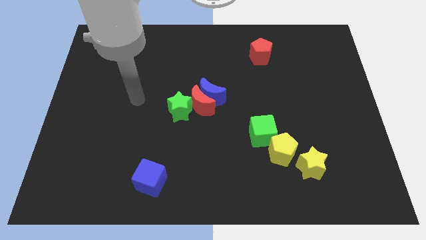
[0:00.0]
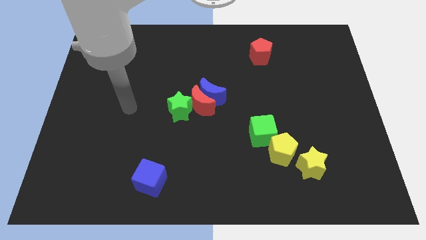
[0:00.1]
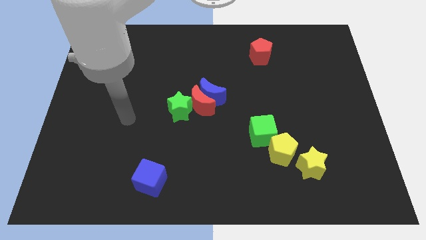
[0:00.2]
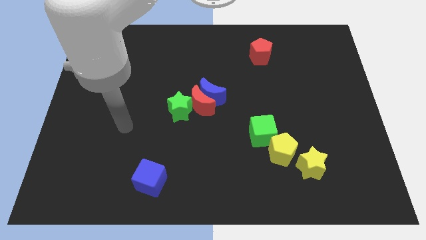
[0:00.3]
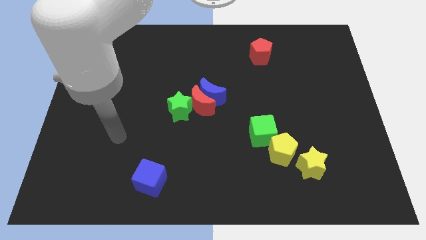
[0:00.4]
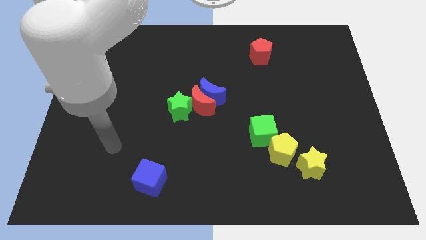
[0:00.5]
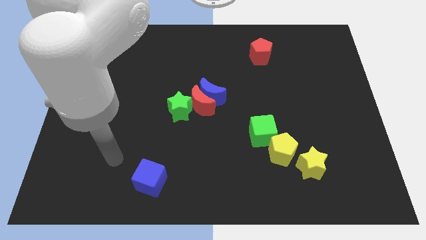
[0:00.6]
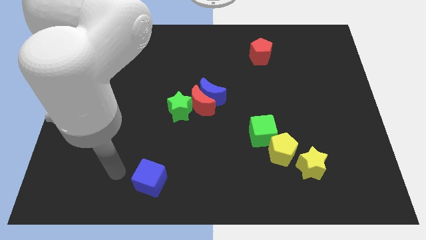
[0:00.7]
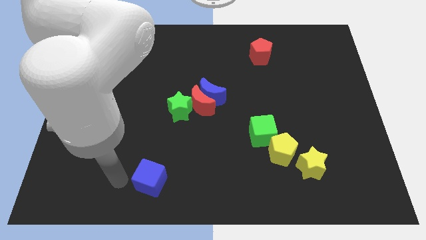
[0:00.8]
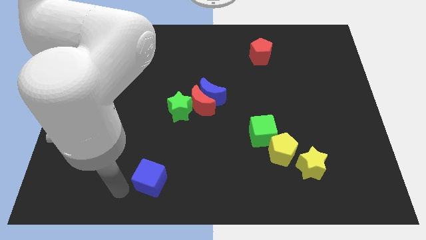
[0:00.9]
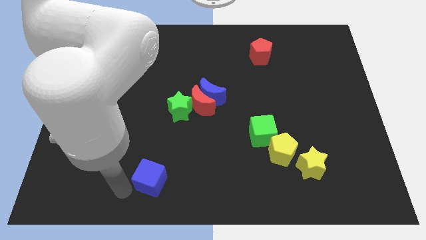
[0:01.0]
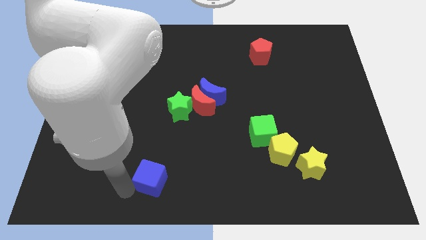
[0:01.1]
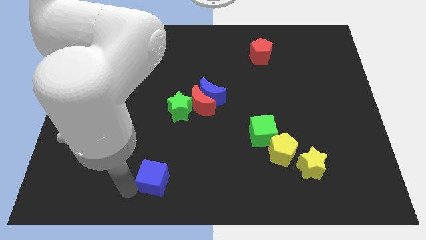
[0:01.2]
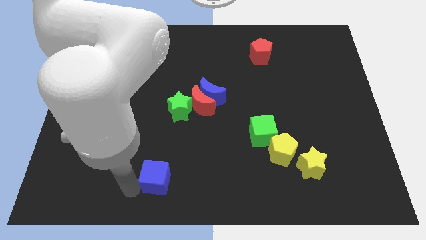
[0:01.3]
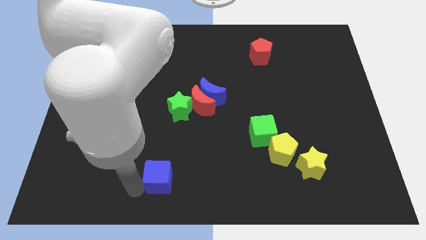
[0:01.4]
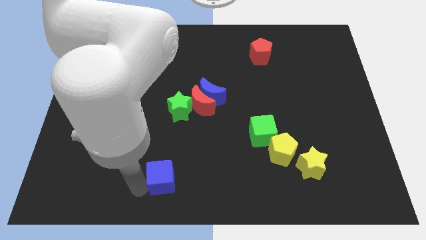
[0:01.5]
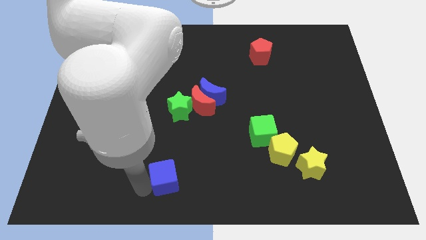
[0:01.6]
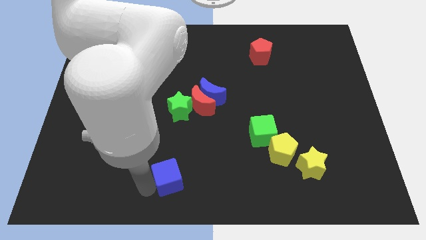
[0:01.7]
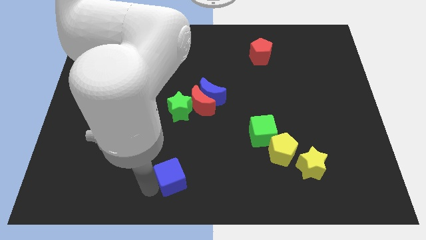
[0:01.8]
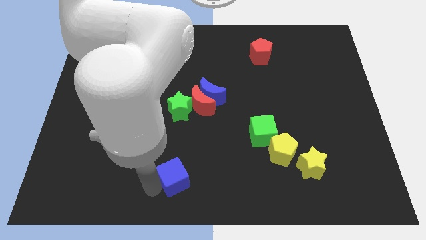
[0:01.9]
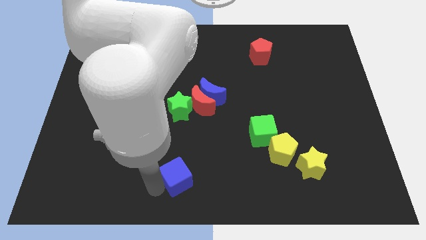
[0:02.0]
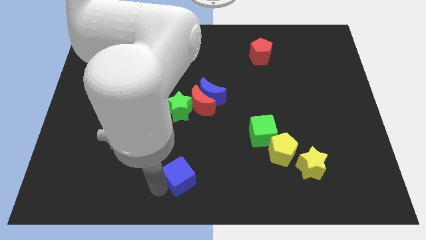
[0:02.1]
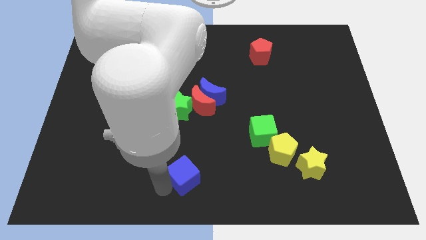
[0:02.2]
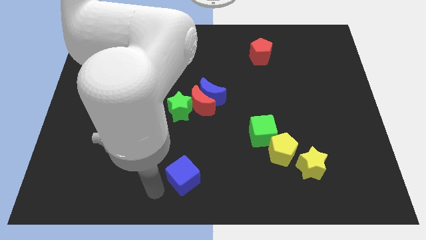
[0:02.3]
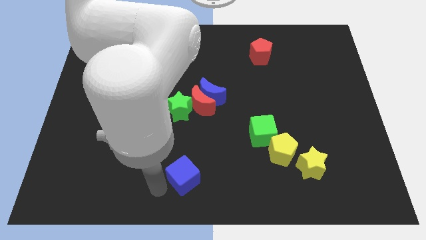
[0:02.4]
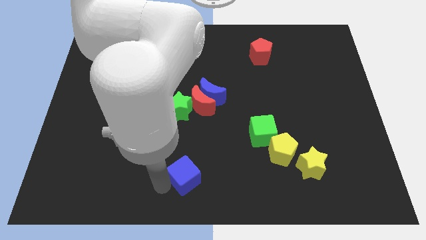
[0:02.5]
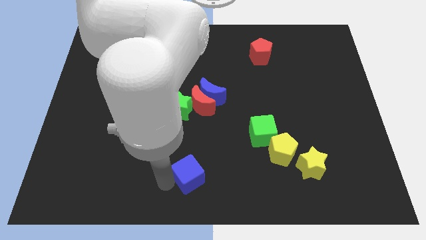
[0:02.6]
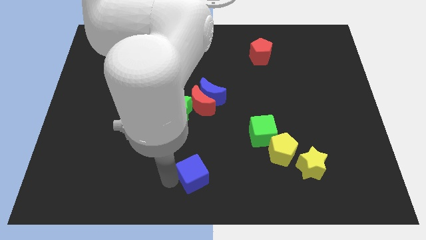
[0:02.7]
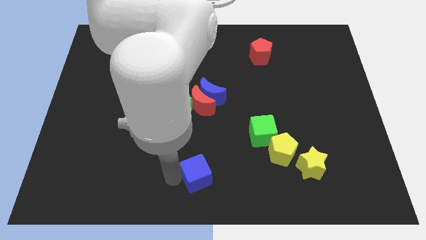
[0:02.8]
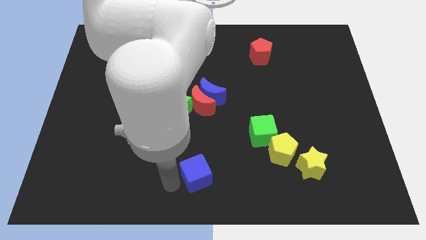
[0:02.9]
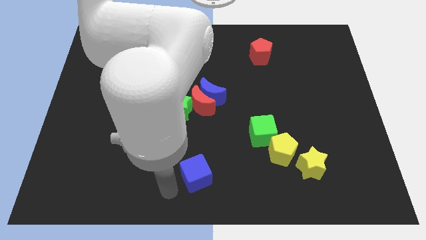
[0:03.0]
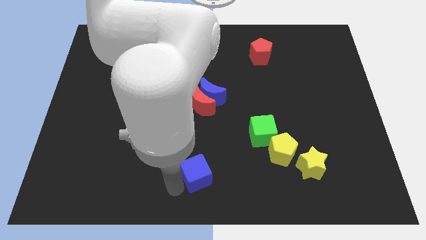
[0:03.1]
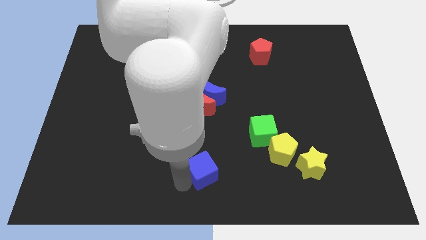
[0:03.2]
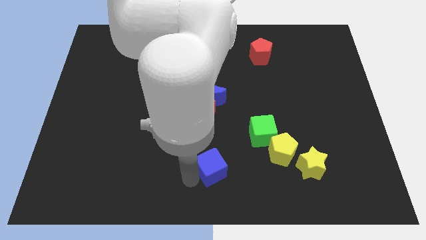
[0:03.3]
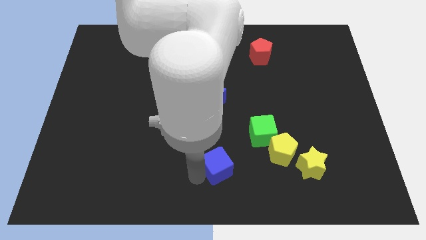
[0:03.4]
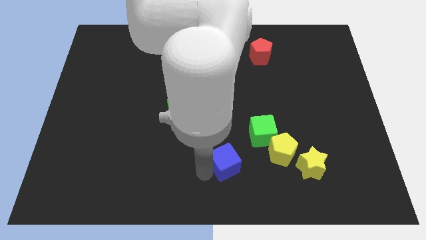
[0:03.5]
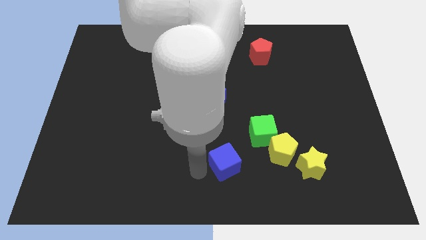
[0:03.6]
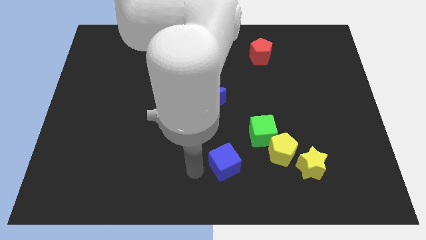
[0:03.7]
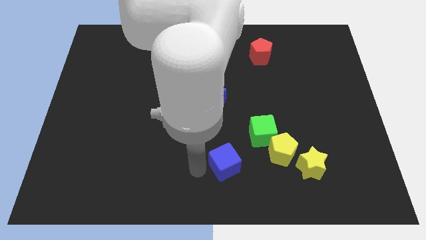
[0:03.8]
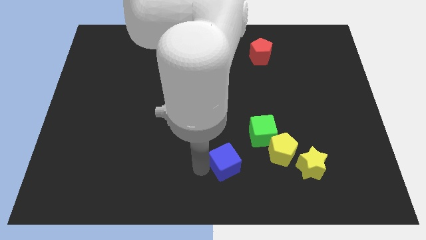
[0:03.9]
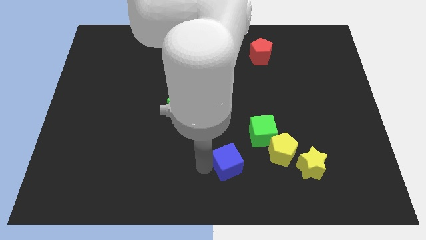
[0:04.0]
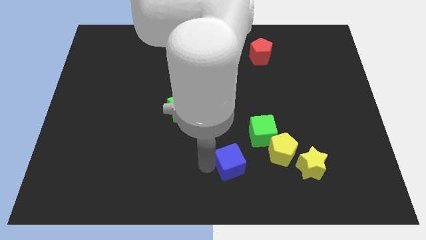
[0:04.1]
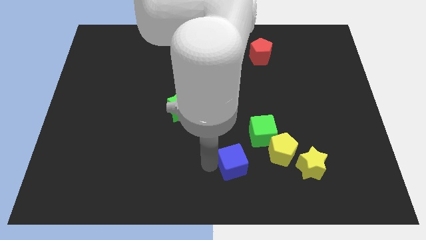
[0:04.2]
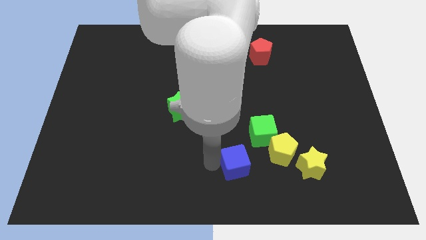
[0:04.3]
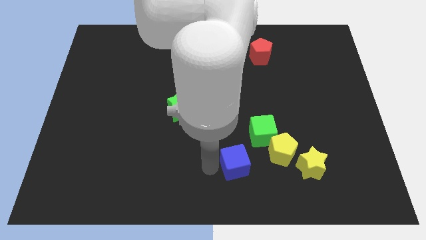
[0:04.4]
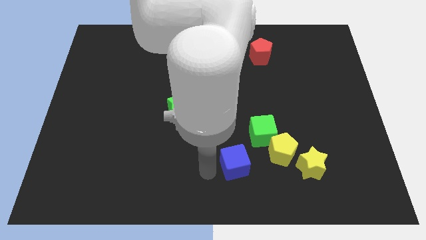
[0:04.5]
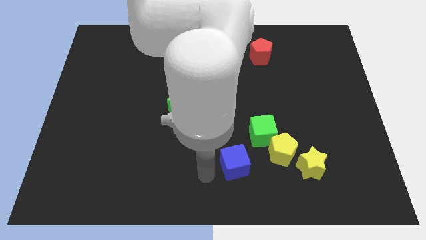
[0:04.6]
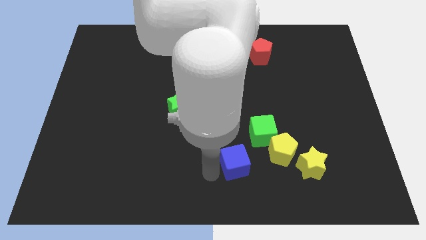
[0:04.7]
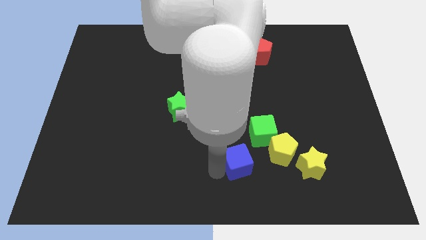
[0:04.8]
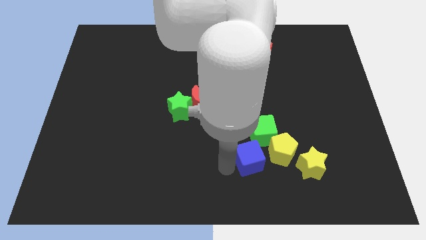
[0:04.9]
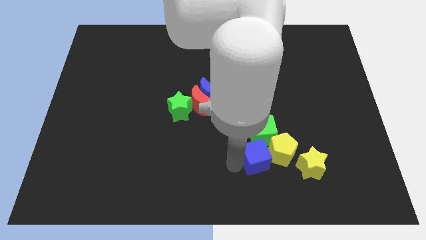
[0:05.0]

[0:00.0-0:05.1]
put the blue cube next to the yellow pentagon

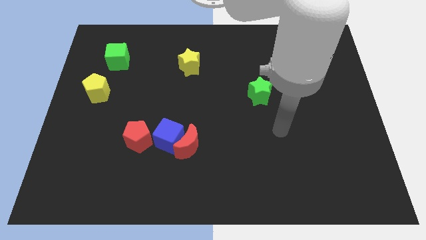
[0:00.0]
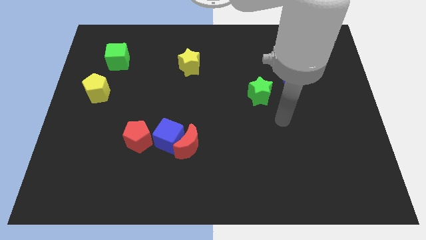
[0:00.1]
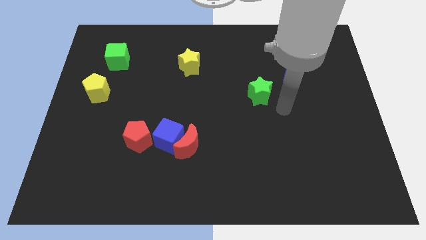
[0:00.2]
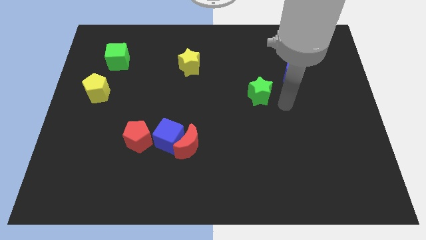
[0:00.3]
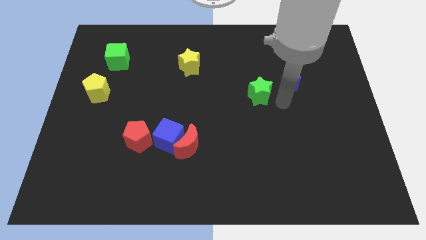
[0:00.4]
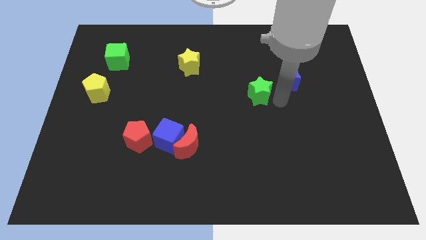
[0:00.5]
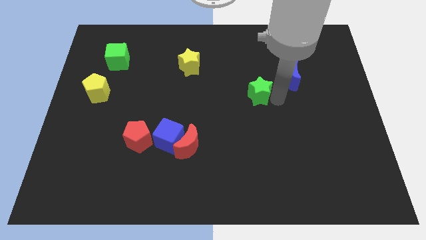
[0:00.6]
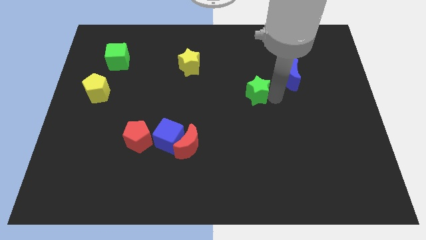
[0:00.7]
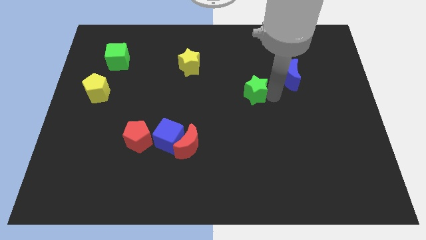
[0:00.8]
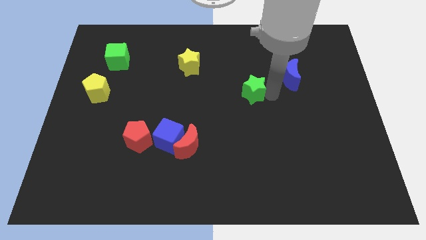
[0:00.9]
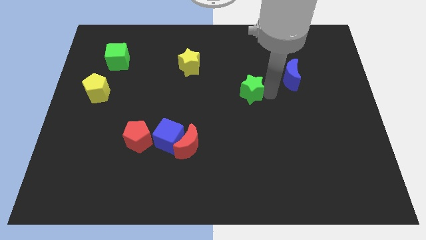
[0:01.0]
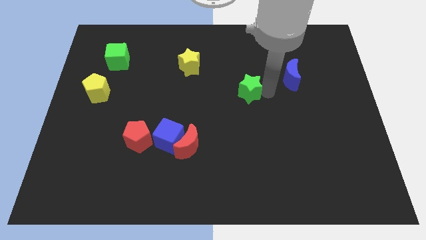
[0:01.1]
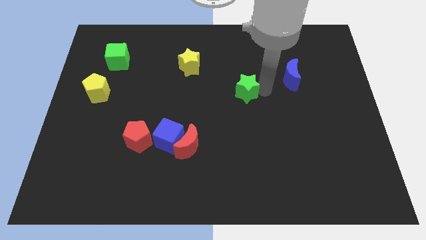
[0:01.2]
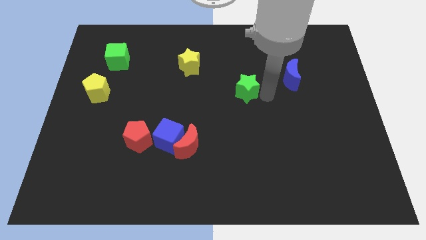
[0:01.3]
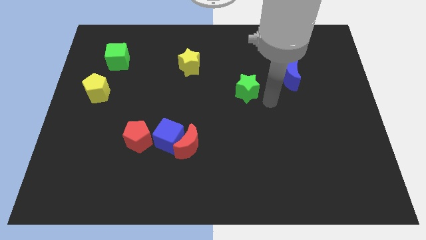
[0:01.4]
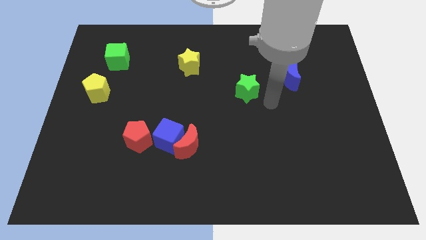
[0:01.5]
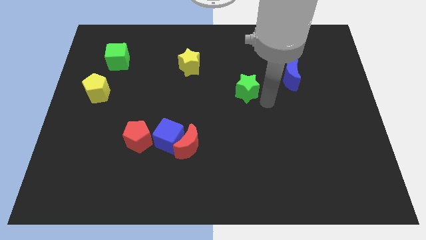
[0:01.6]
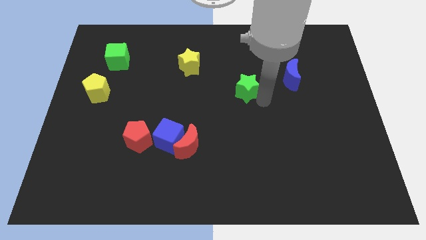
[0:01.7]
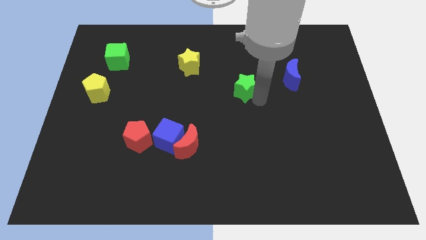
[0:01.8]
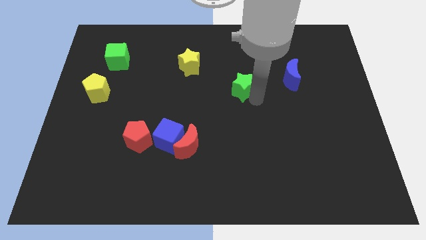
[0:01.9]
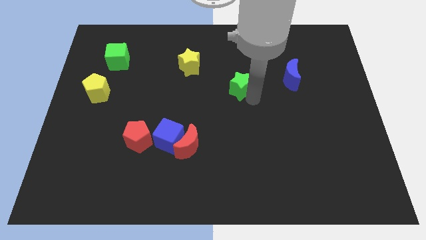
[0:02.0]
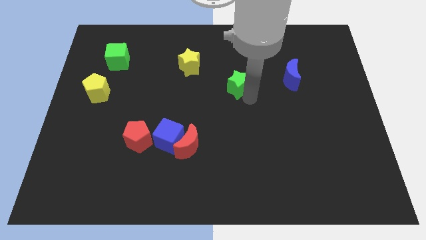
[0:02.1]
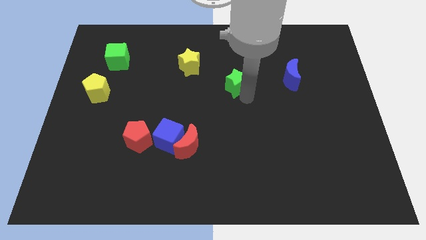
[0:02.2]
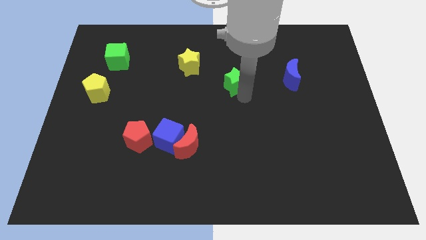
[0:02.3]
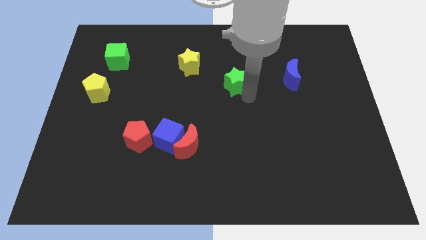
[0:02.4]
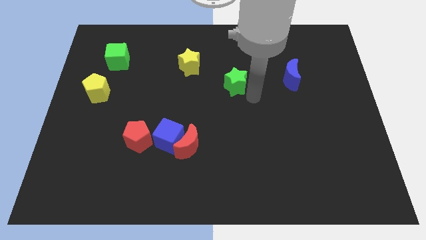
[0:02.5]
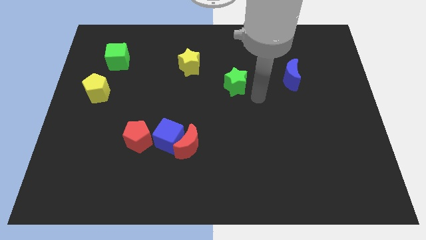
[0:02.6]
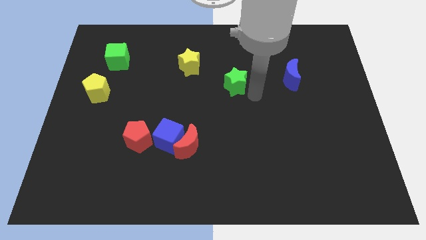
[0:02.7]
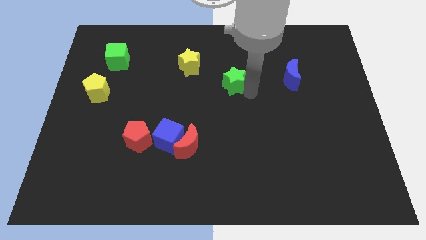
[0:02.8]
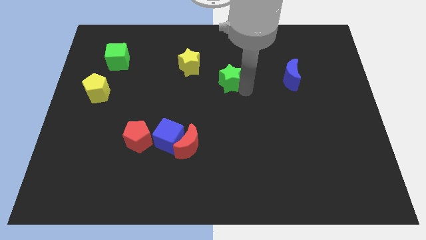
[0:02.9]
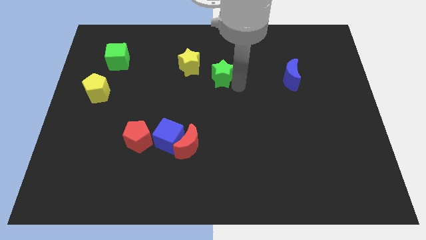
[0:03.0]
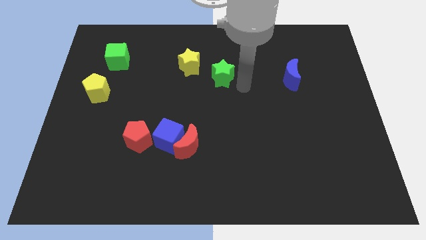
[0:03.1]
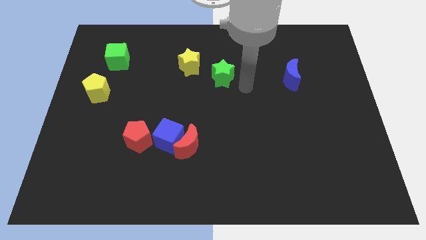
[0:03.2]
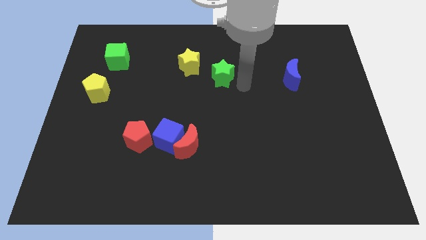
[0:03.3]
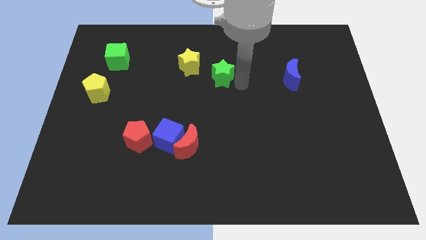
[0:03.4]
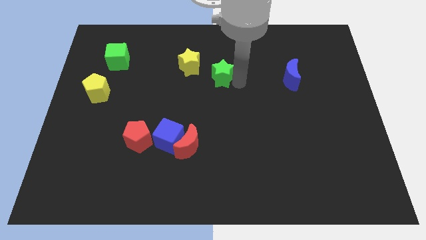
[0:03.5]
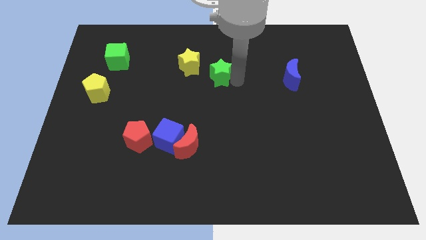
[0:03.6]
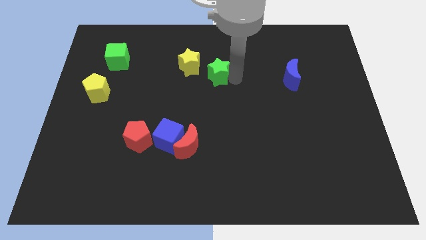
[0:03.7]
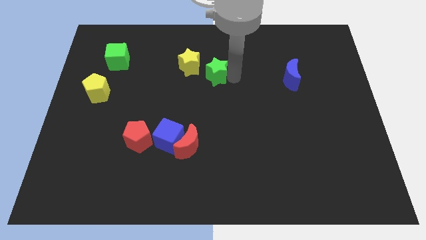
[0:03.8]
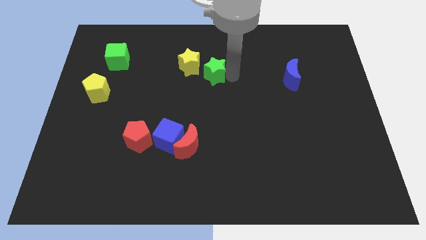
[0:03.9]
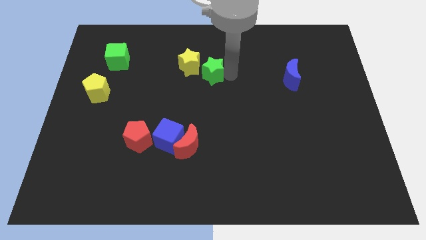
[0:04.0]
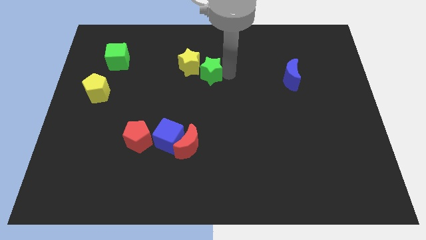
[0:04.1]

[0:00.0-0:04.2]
push the green star close to the yellow star
